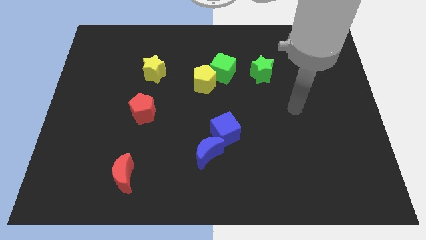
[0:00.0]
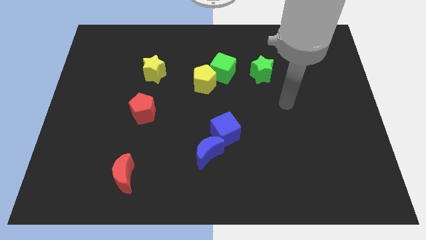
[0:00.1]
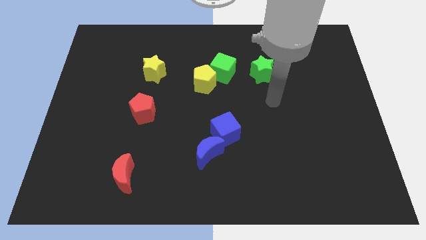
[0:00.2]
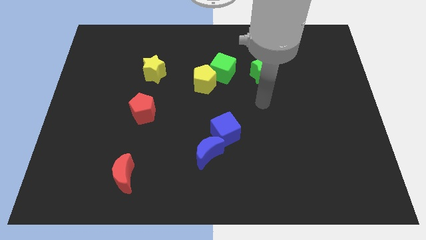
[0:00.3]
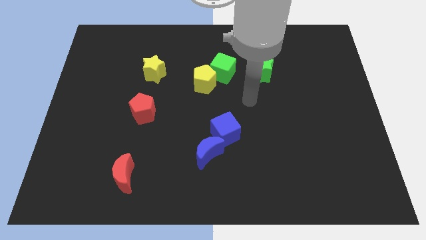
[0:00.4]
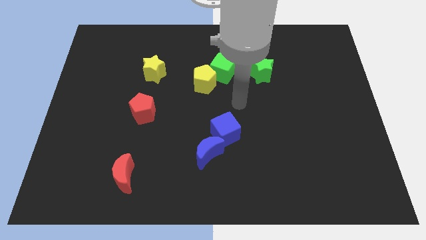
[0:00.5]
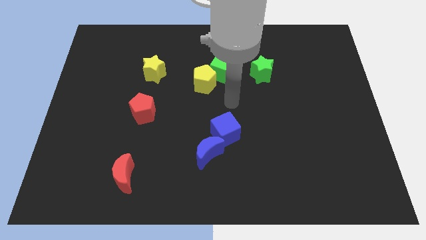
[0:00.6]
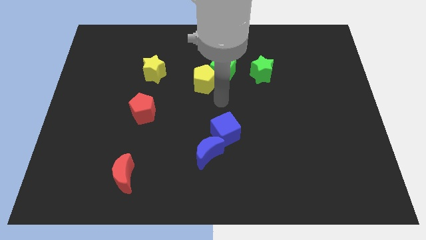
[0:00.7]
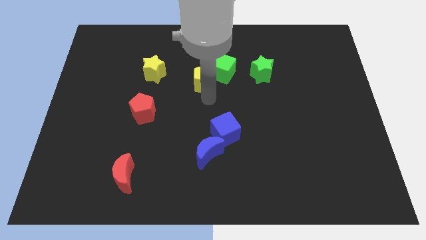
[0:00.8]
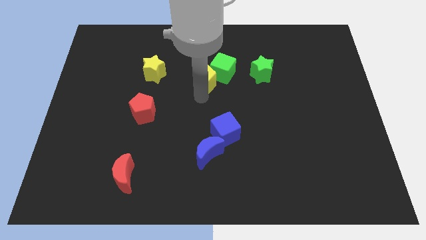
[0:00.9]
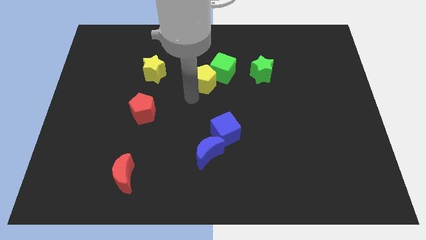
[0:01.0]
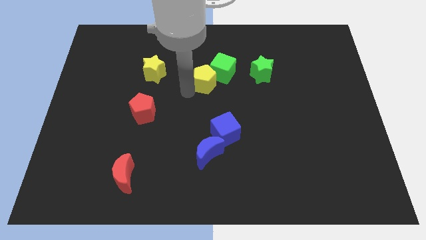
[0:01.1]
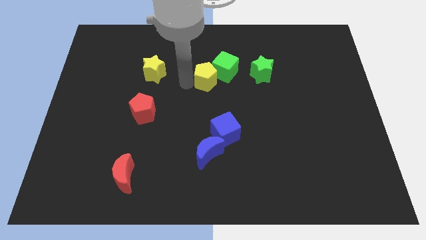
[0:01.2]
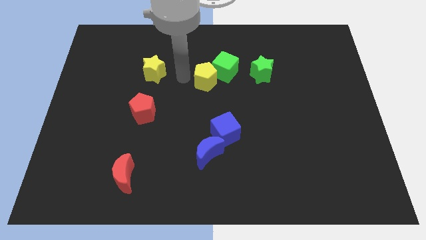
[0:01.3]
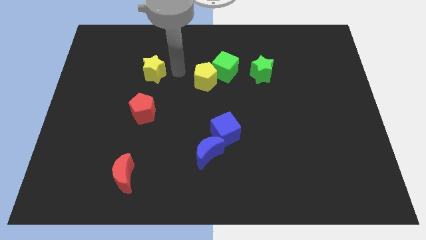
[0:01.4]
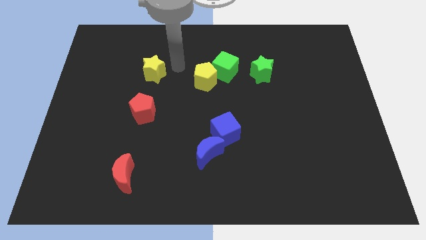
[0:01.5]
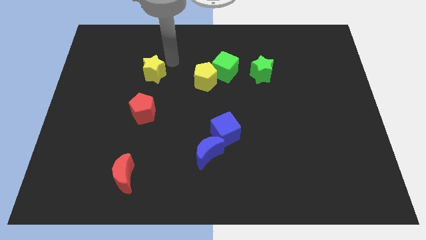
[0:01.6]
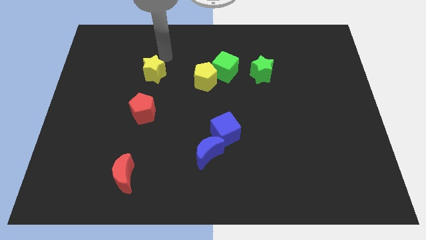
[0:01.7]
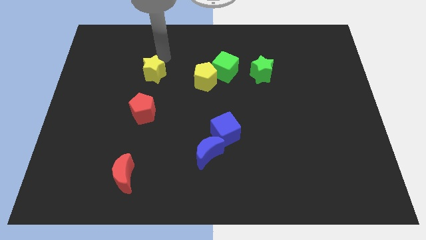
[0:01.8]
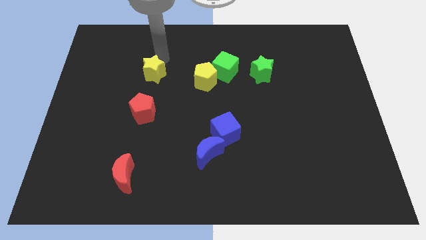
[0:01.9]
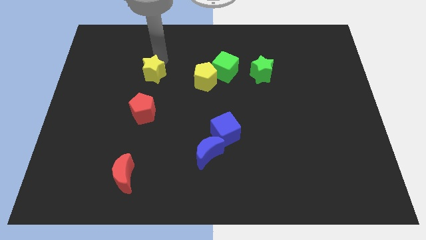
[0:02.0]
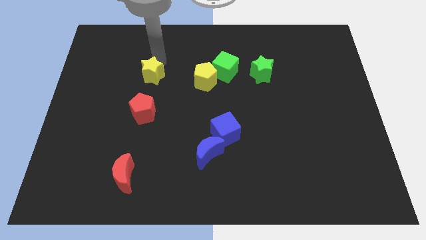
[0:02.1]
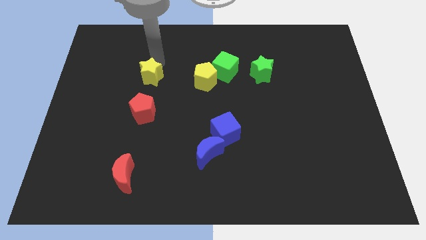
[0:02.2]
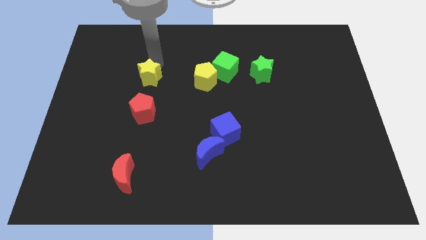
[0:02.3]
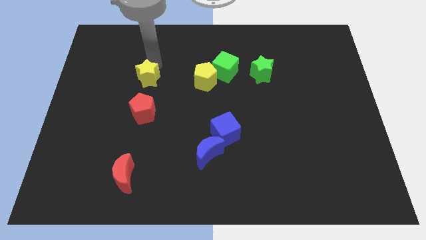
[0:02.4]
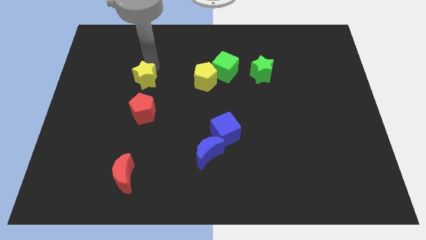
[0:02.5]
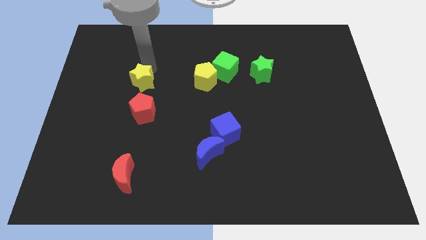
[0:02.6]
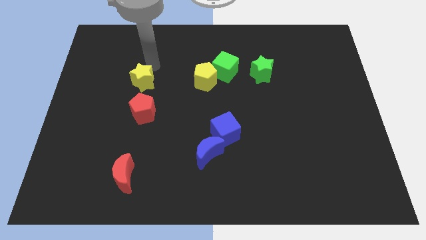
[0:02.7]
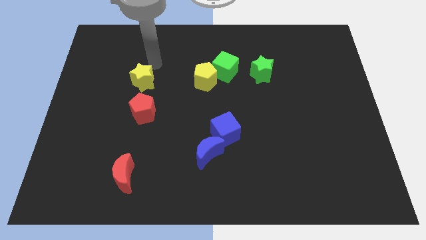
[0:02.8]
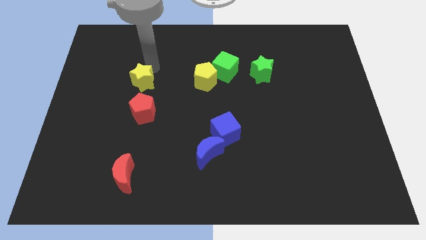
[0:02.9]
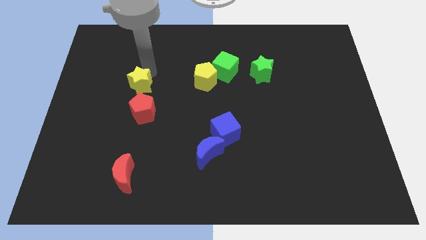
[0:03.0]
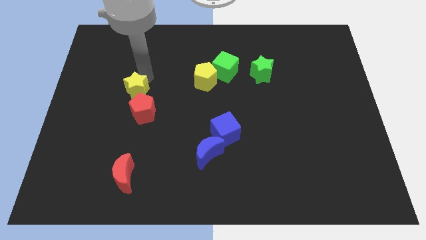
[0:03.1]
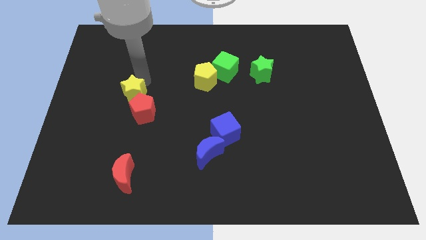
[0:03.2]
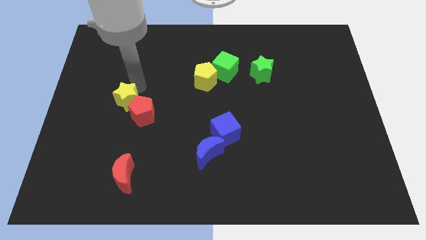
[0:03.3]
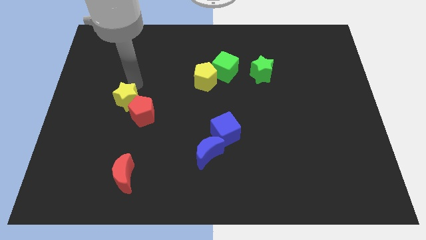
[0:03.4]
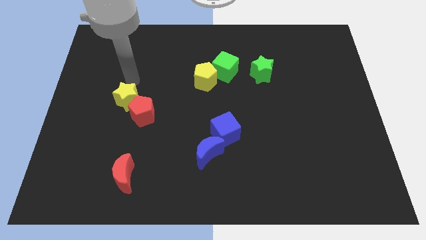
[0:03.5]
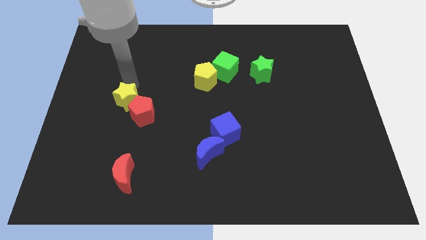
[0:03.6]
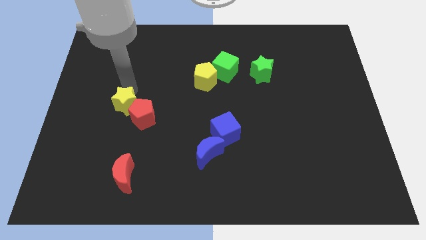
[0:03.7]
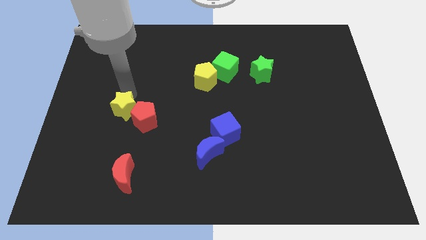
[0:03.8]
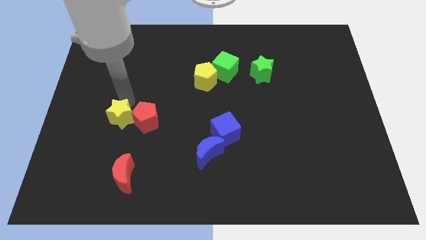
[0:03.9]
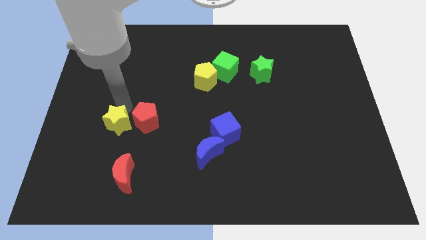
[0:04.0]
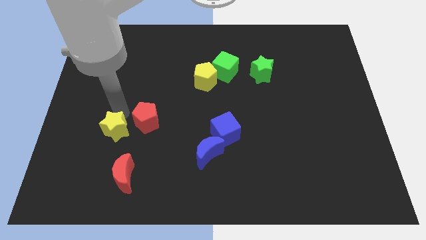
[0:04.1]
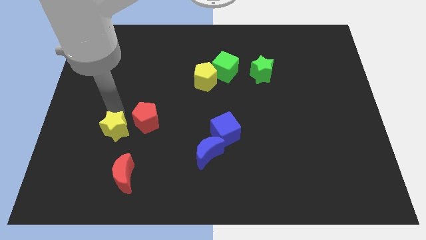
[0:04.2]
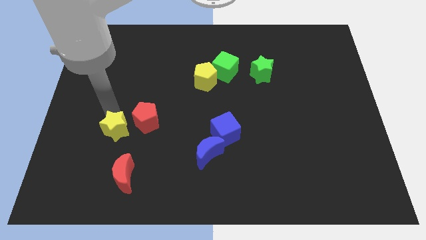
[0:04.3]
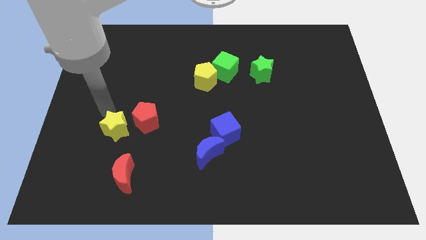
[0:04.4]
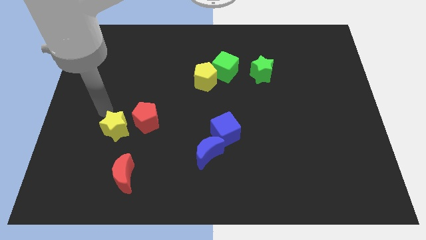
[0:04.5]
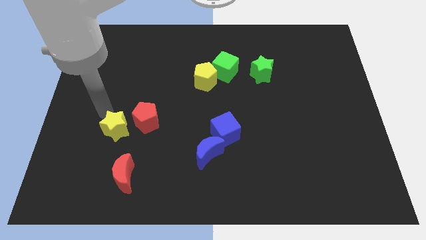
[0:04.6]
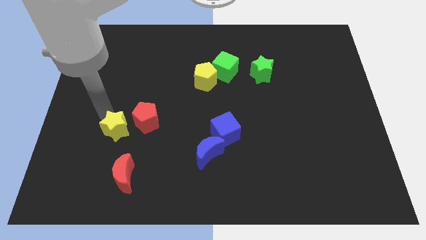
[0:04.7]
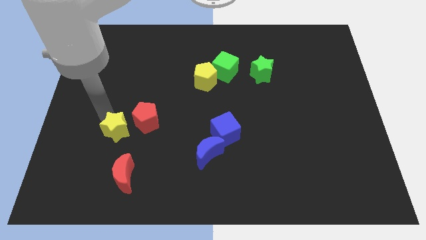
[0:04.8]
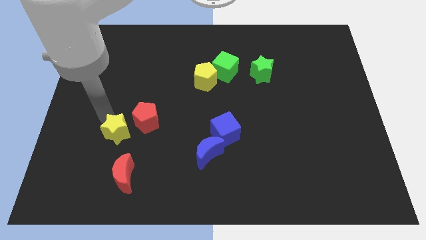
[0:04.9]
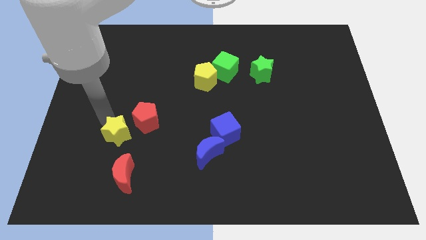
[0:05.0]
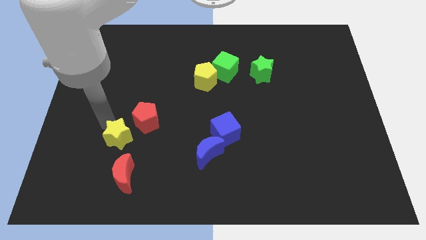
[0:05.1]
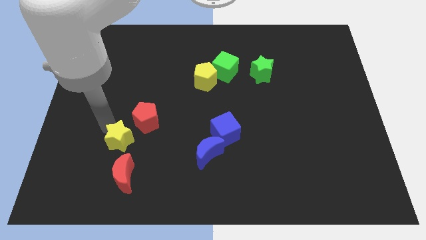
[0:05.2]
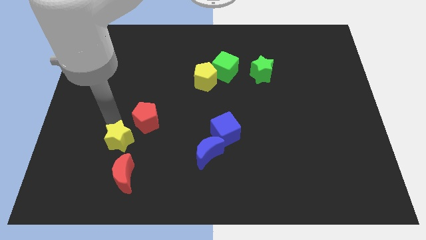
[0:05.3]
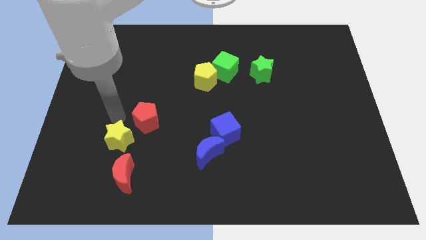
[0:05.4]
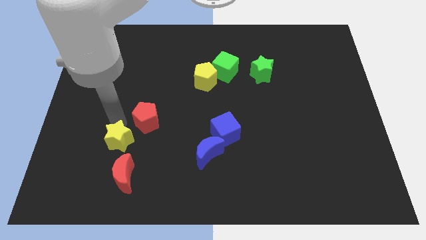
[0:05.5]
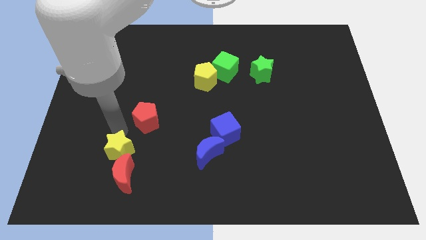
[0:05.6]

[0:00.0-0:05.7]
slide the yellow star next to the red moon

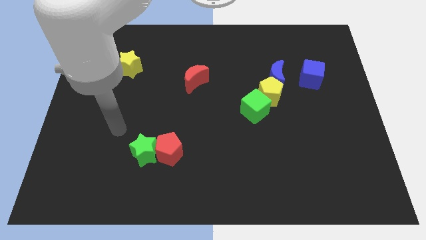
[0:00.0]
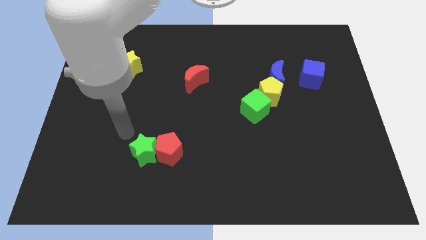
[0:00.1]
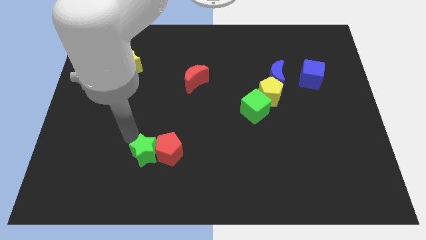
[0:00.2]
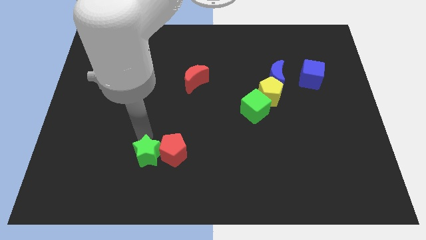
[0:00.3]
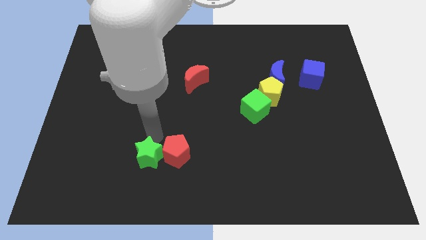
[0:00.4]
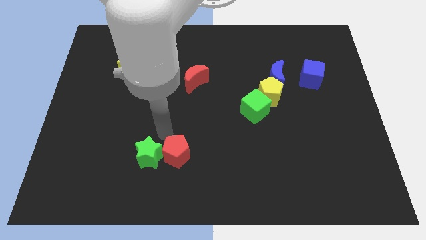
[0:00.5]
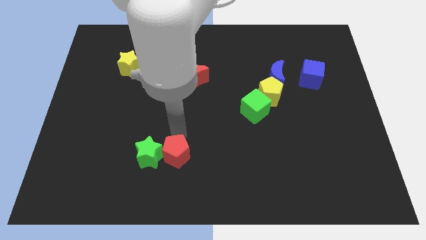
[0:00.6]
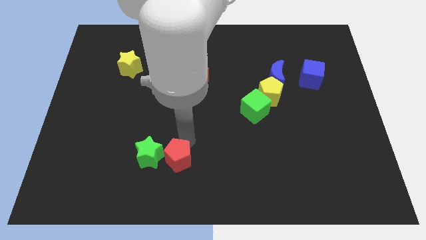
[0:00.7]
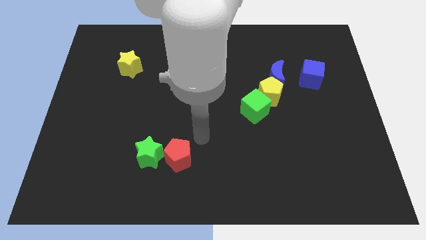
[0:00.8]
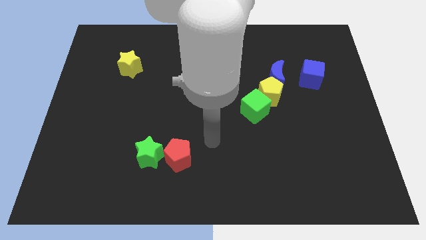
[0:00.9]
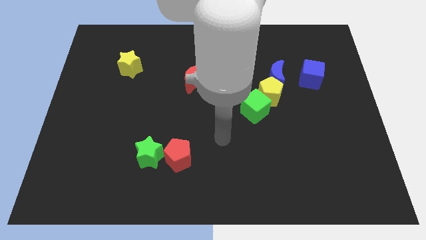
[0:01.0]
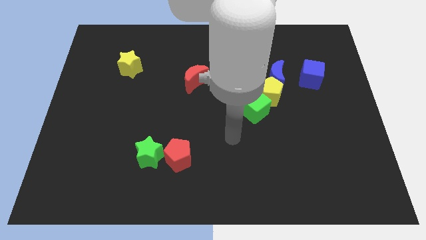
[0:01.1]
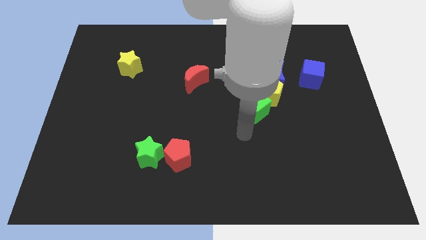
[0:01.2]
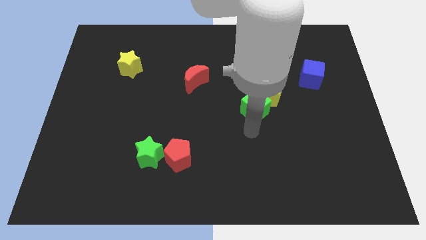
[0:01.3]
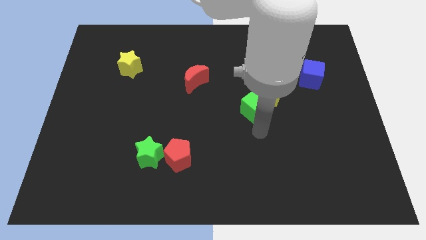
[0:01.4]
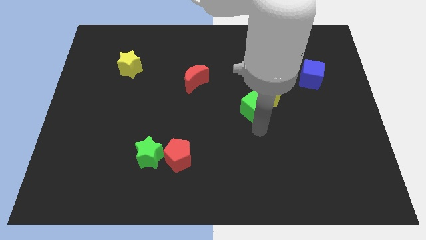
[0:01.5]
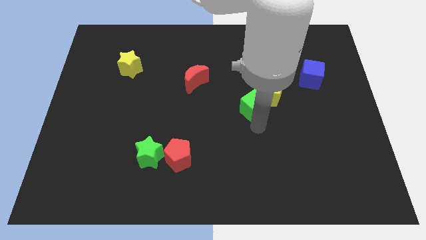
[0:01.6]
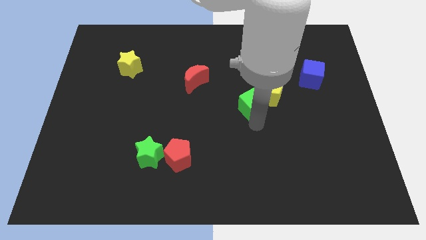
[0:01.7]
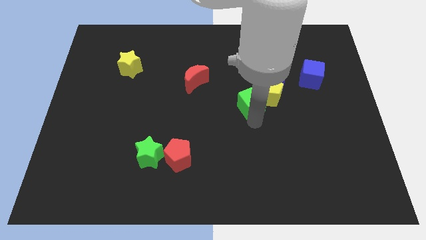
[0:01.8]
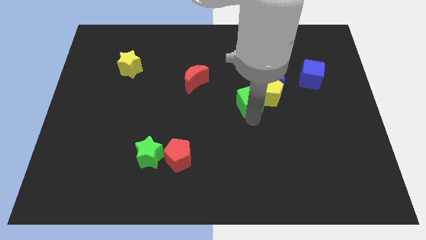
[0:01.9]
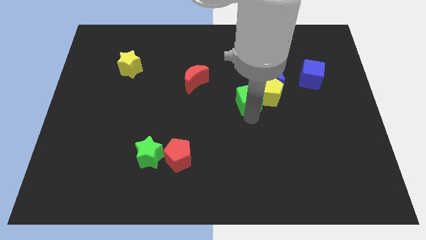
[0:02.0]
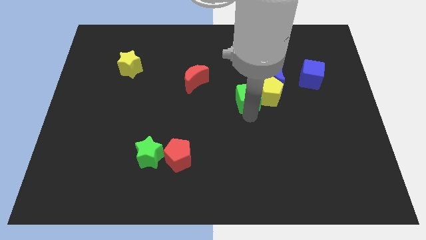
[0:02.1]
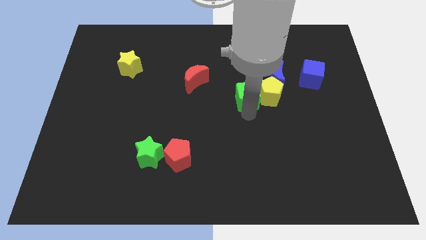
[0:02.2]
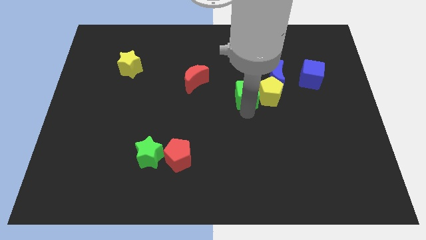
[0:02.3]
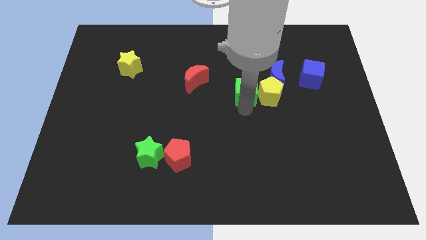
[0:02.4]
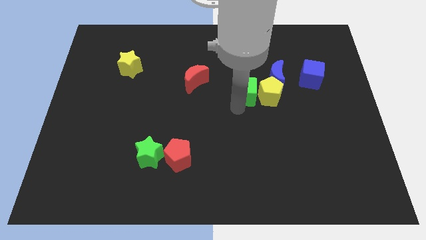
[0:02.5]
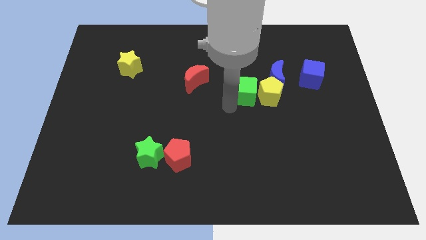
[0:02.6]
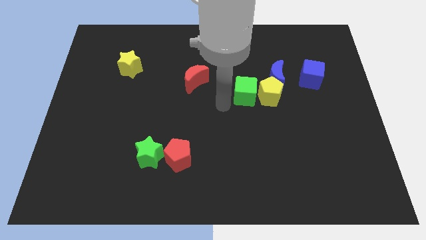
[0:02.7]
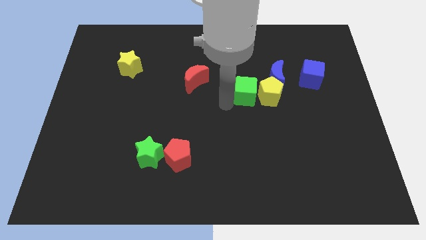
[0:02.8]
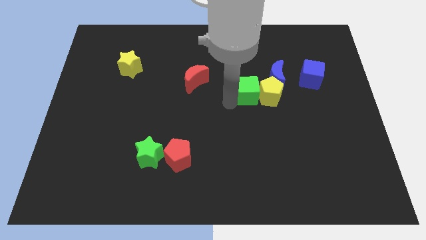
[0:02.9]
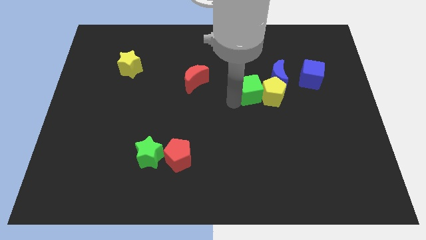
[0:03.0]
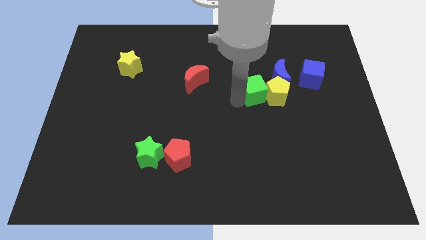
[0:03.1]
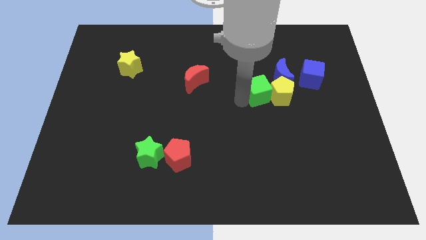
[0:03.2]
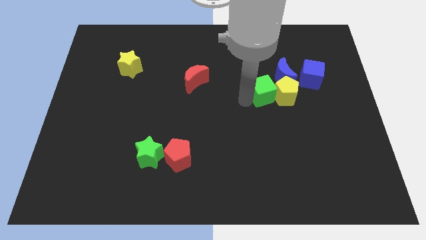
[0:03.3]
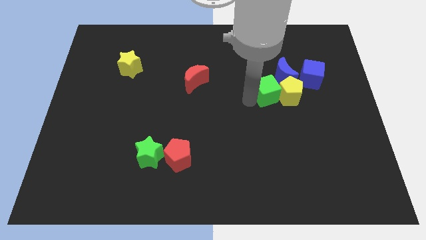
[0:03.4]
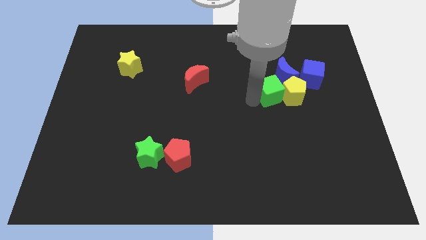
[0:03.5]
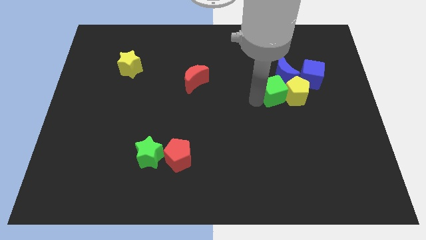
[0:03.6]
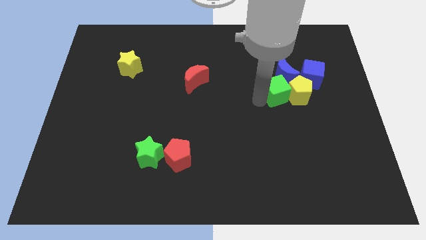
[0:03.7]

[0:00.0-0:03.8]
put the green cube close to the blue moon
